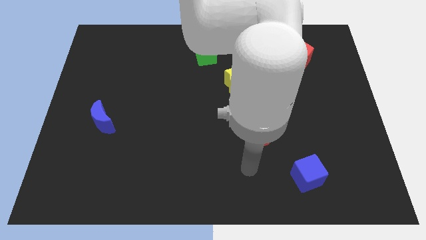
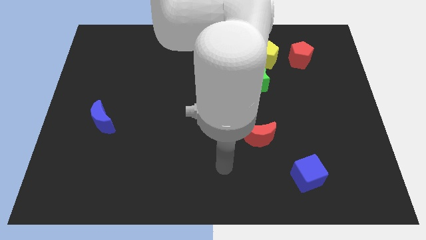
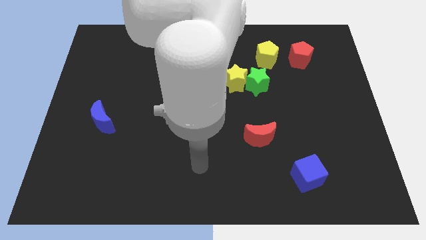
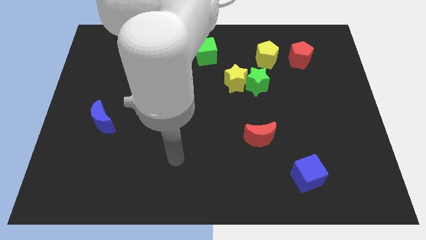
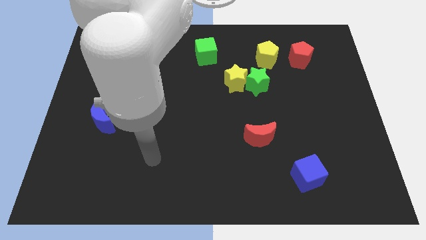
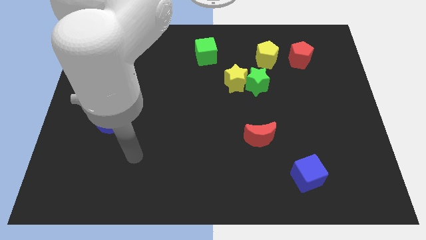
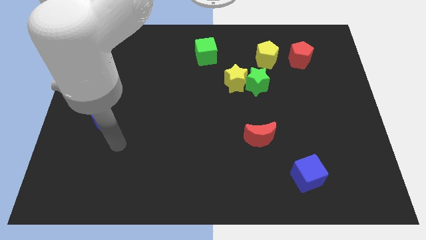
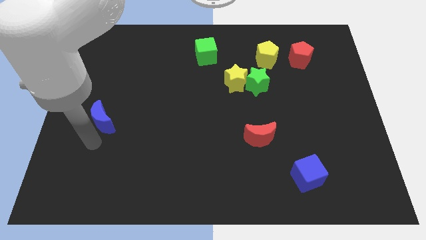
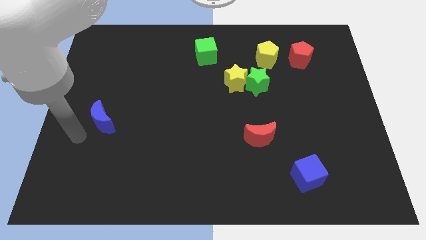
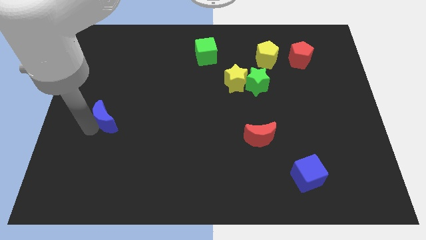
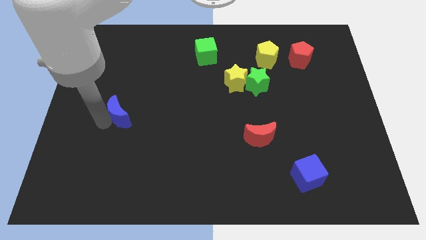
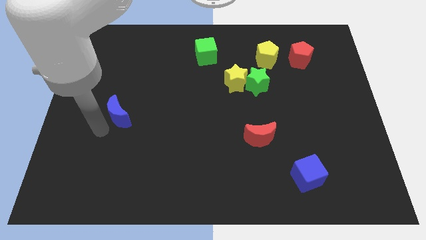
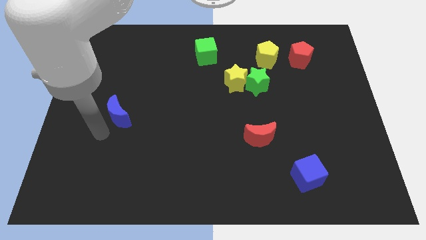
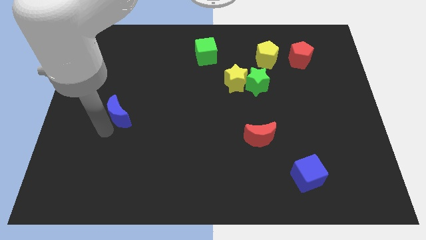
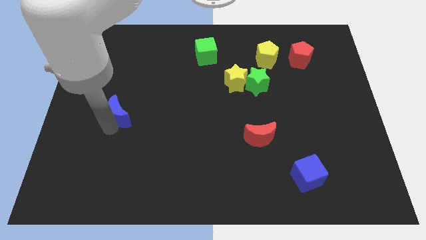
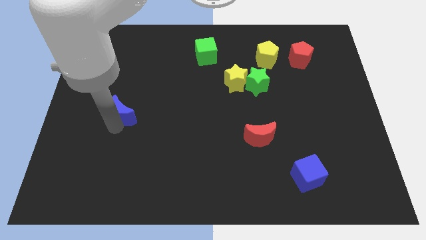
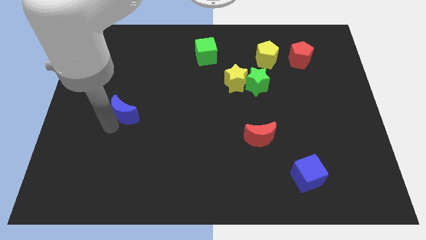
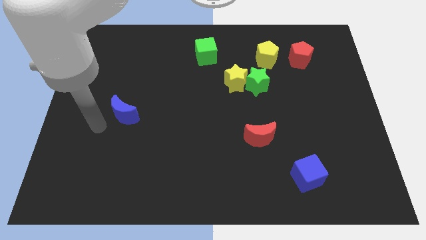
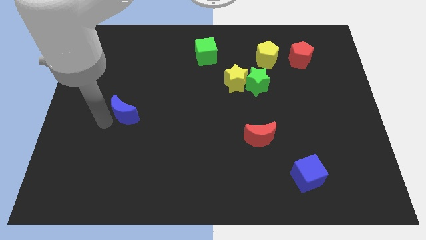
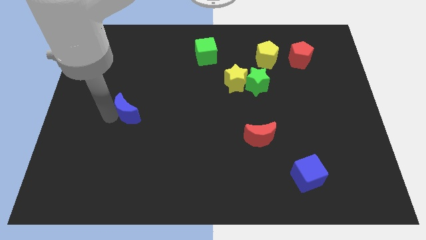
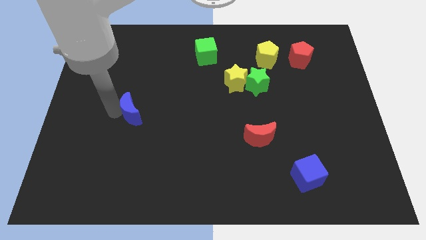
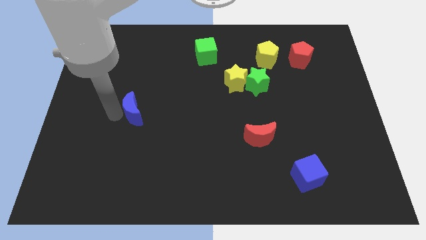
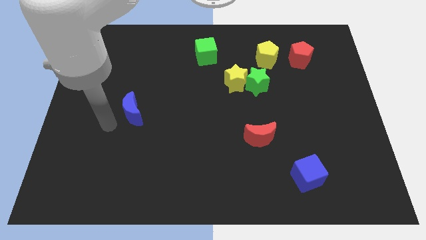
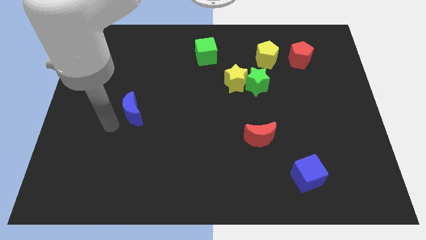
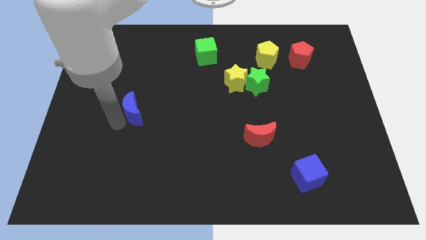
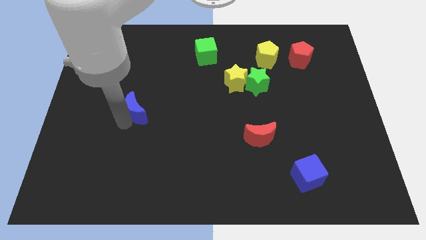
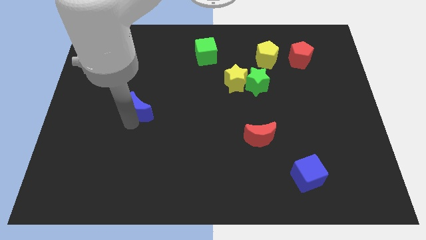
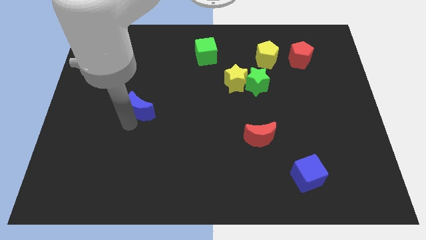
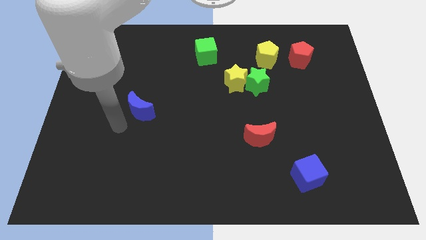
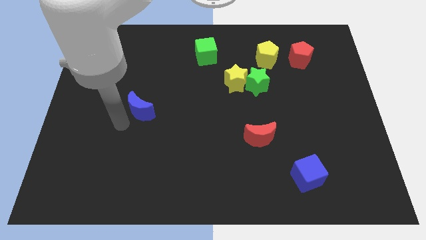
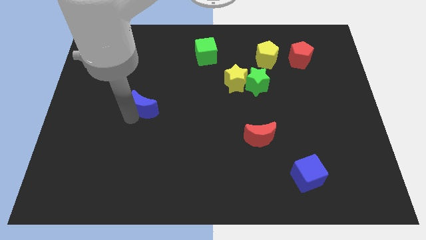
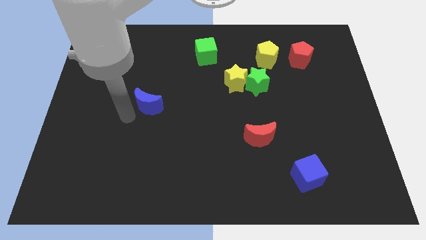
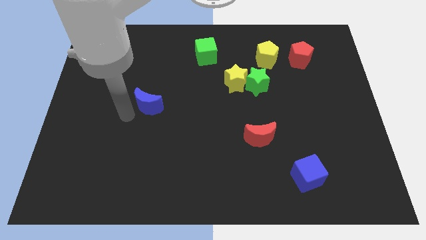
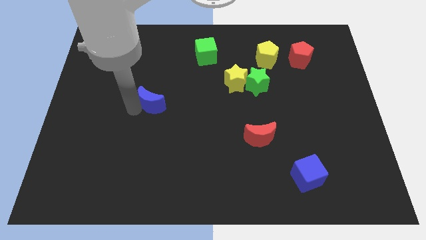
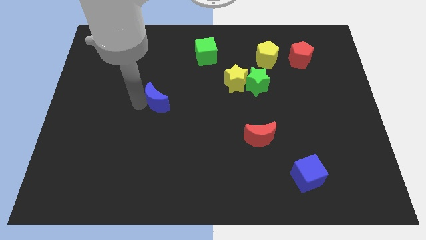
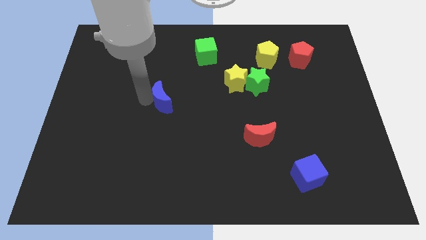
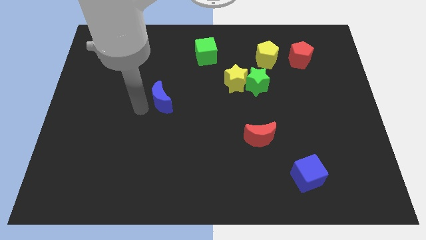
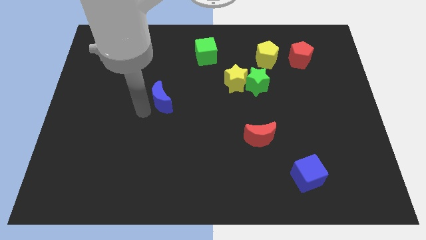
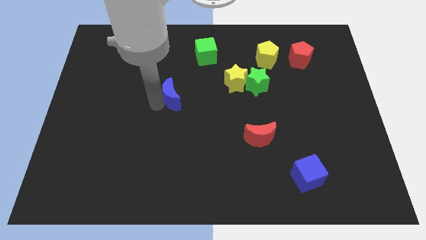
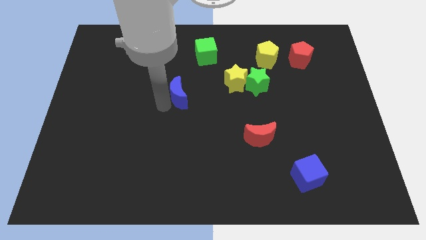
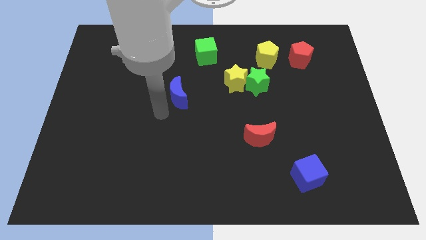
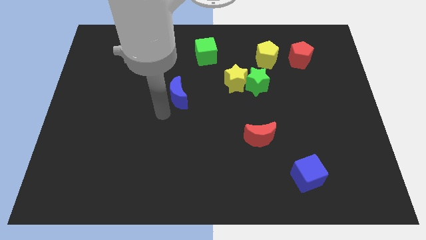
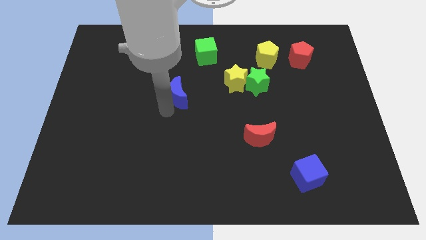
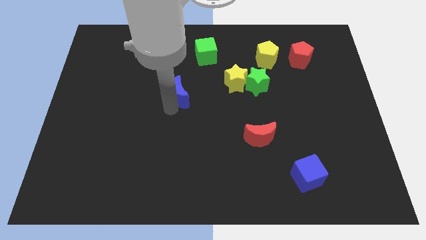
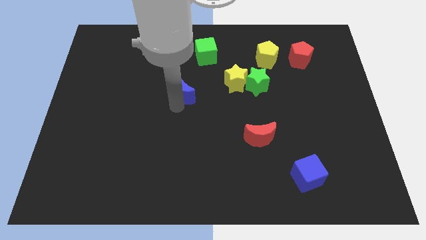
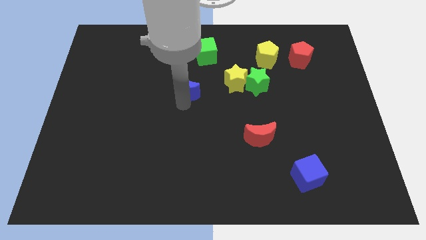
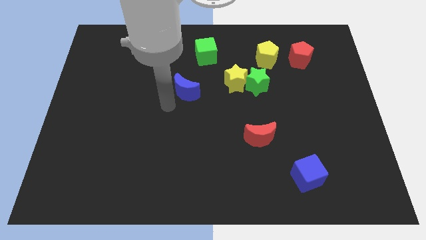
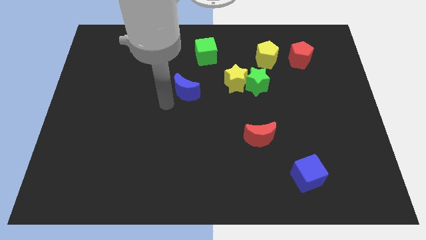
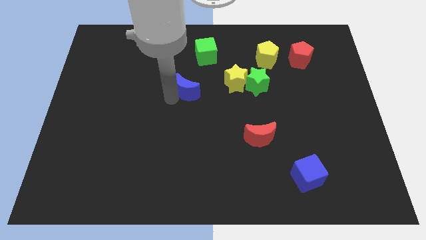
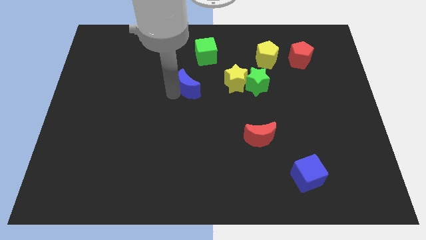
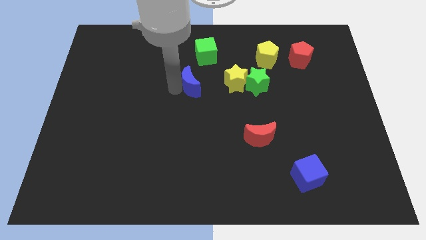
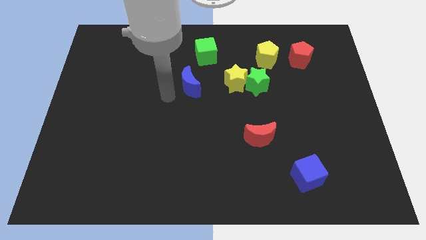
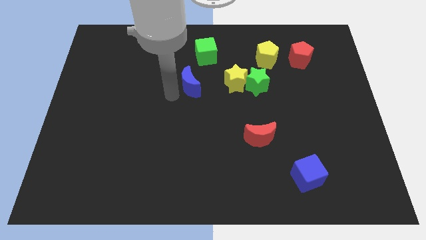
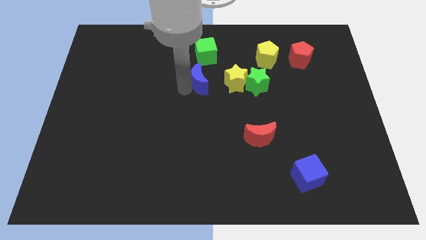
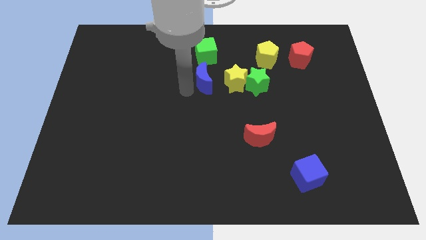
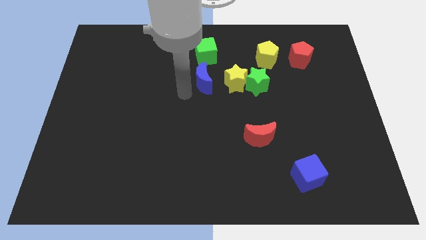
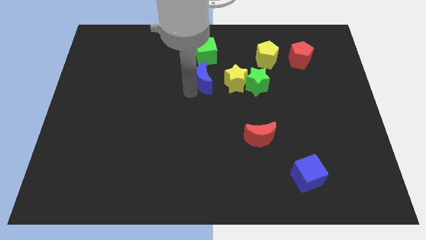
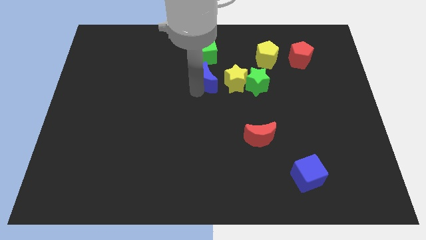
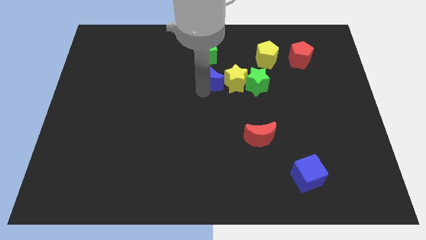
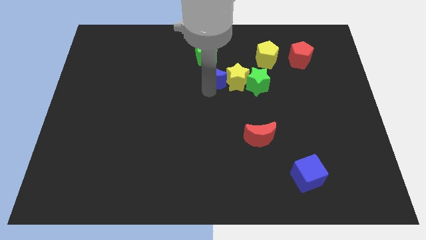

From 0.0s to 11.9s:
move the blue moon to the bottom right of the green cube

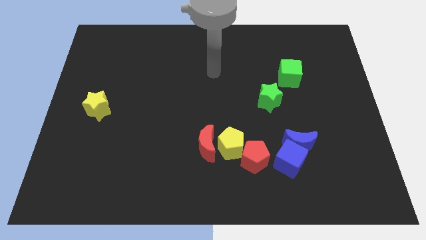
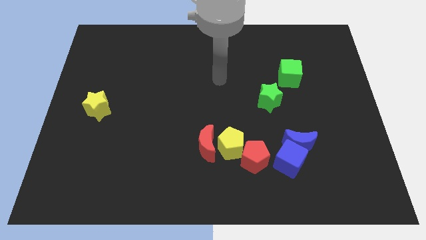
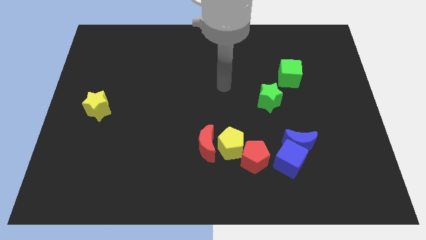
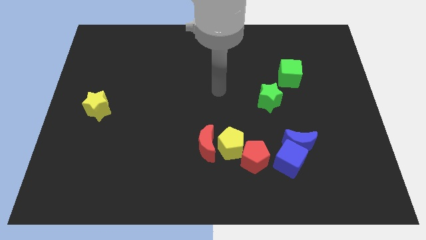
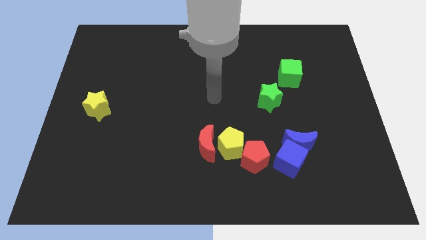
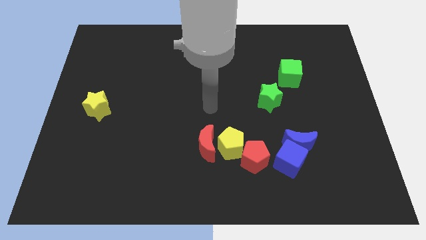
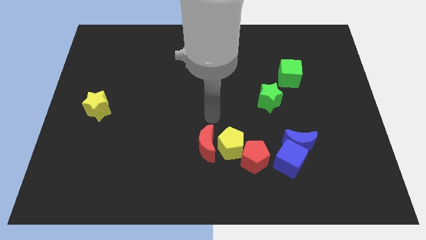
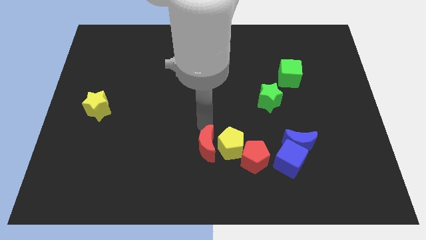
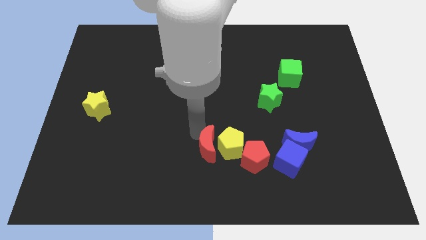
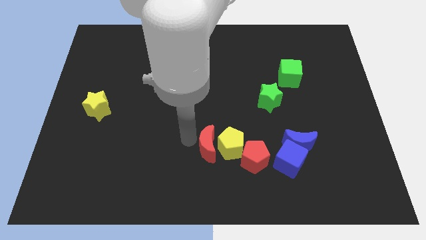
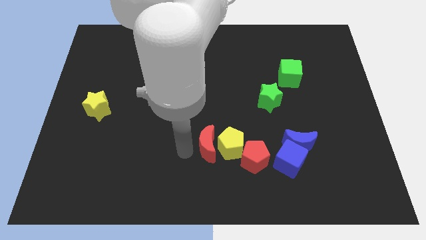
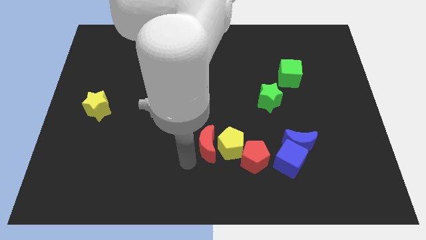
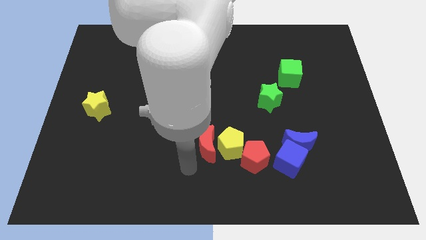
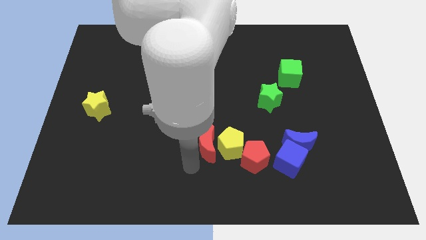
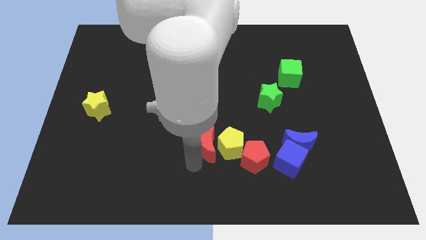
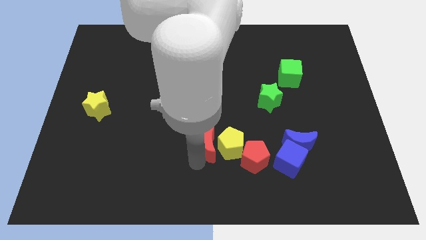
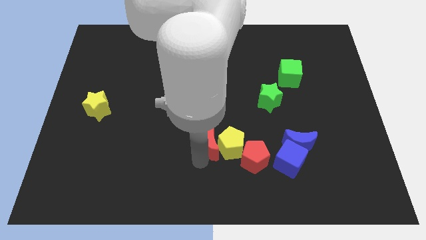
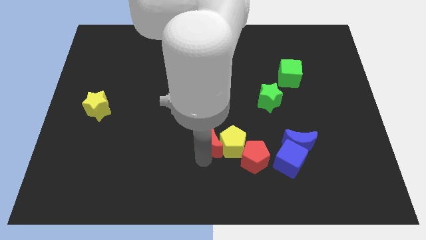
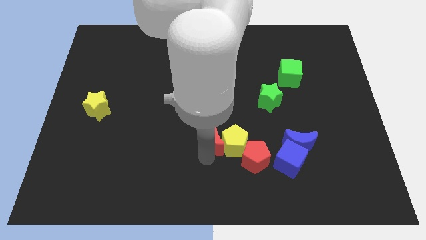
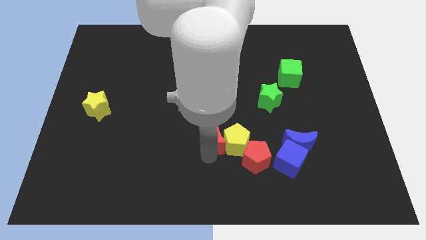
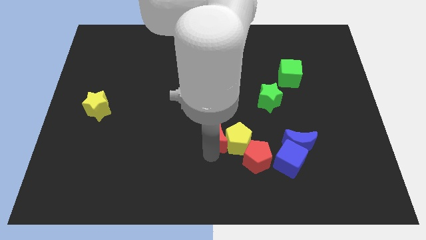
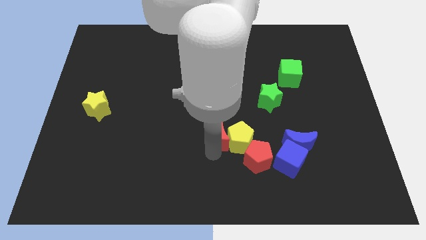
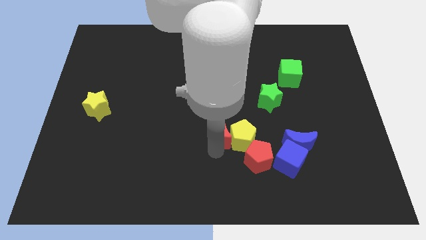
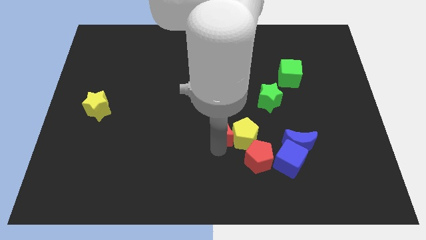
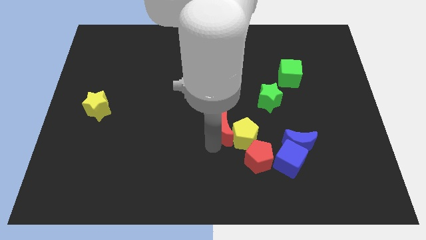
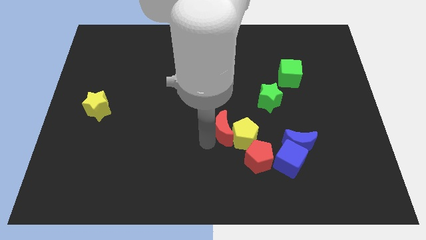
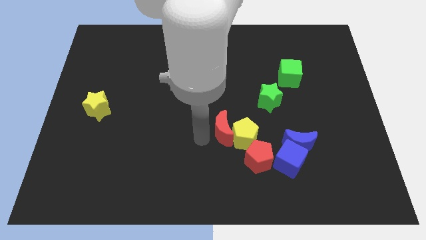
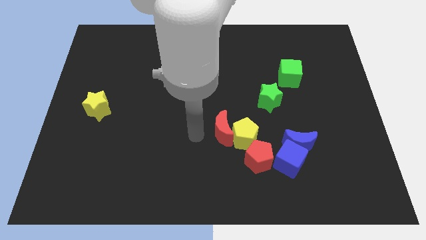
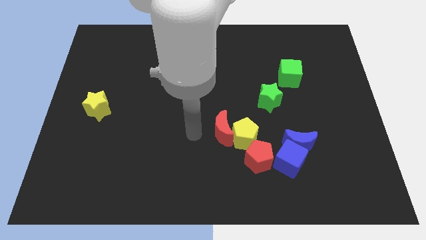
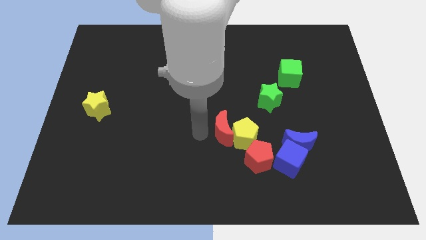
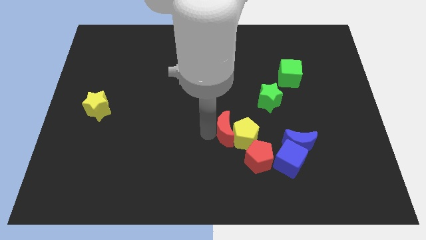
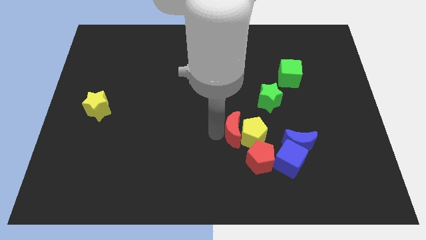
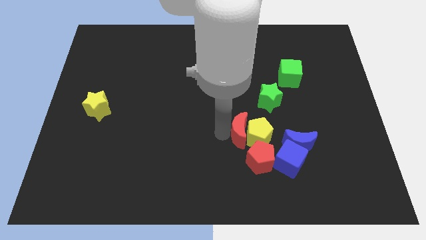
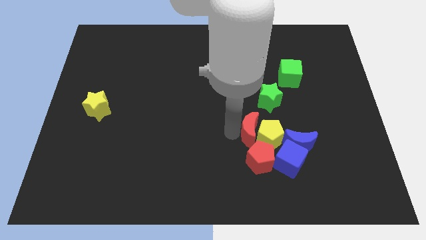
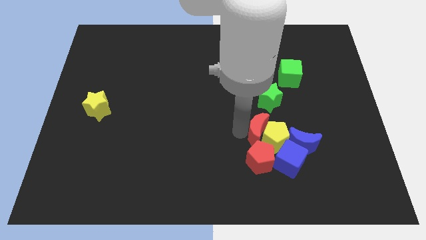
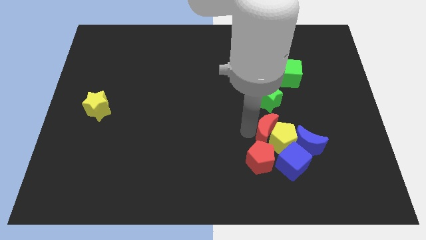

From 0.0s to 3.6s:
move the red moon diagonally up and to the right of the red pentagon
